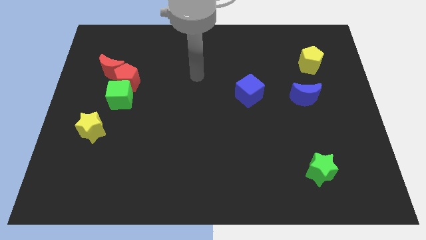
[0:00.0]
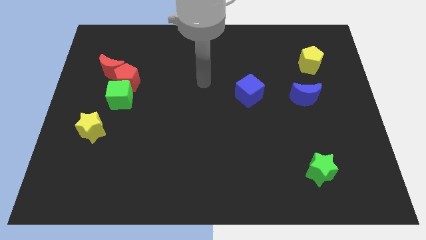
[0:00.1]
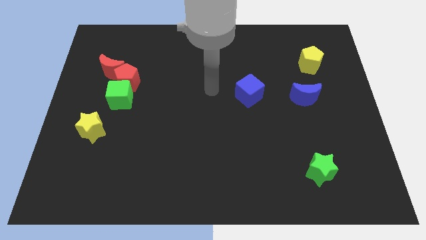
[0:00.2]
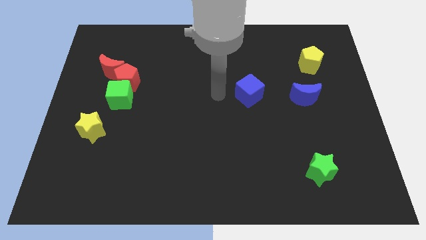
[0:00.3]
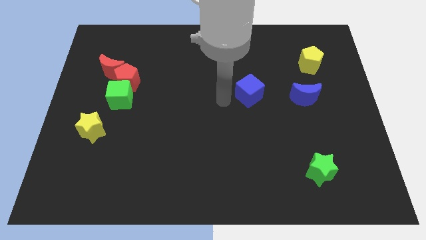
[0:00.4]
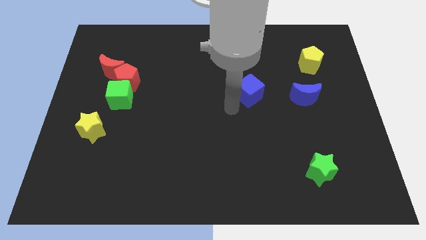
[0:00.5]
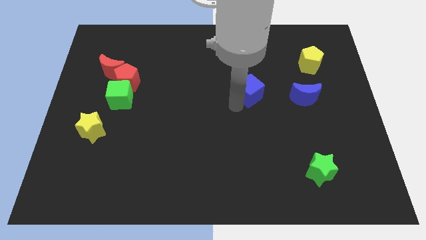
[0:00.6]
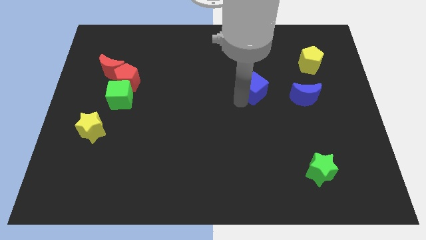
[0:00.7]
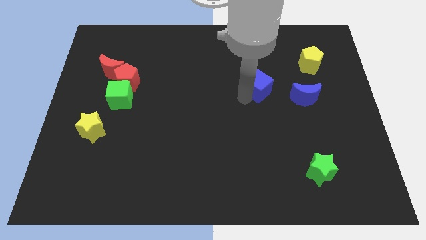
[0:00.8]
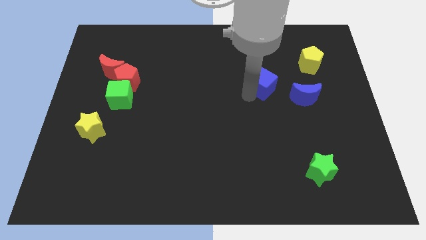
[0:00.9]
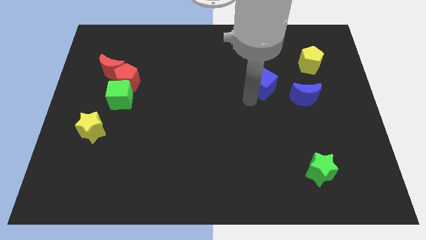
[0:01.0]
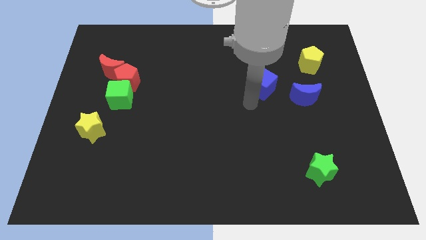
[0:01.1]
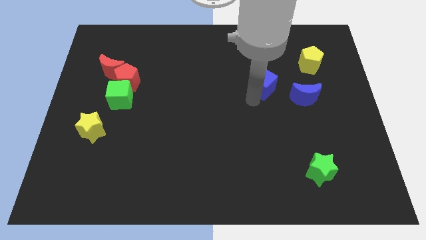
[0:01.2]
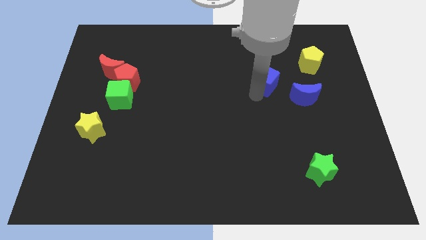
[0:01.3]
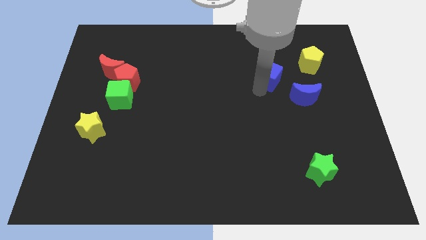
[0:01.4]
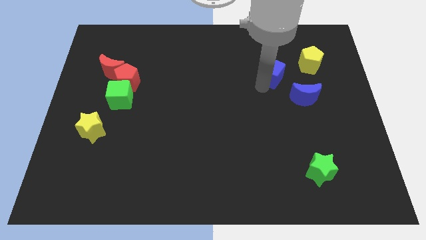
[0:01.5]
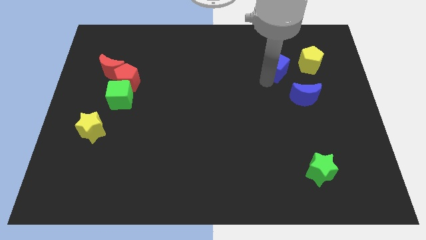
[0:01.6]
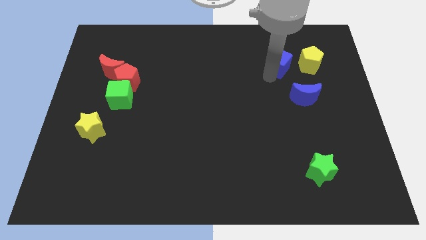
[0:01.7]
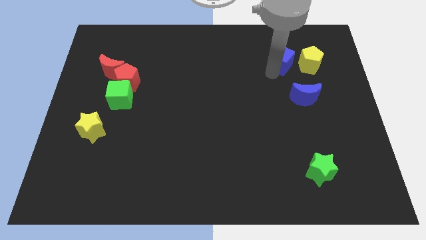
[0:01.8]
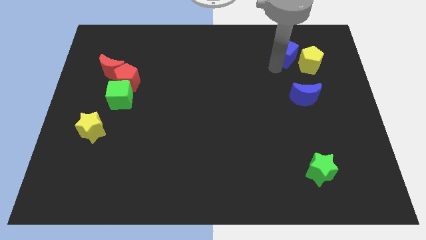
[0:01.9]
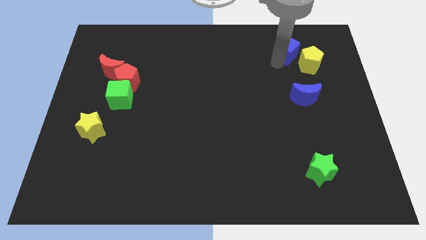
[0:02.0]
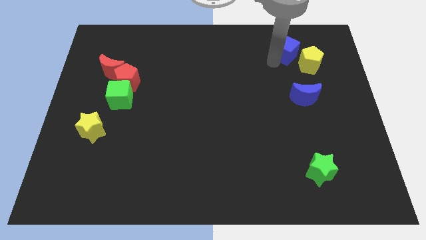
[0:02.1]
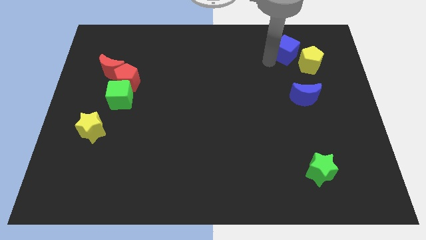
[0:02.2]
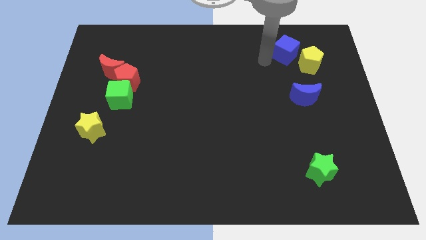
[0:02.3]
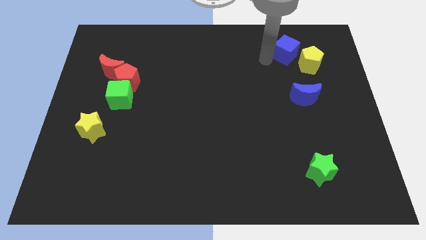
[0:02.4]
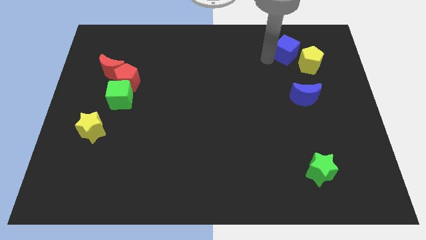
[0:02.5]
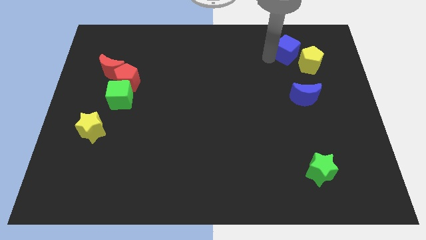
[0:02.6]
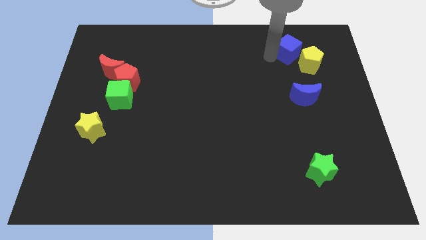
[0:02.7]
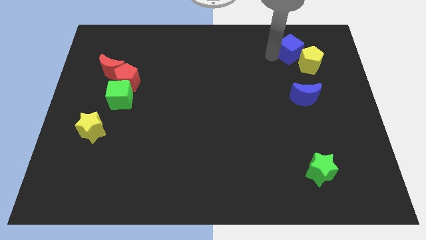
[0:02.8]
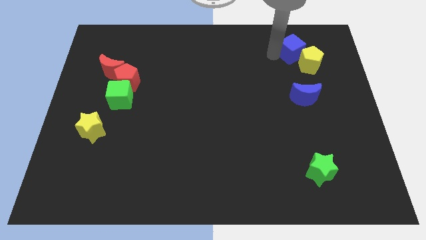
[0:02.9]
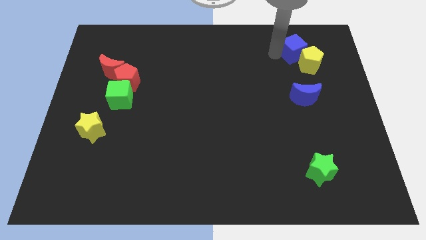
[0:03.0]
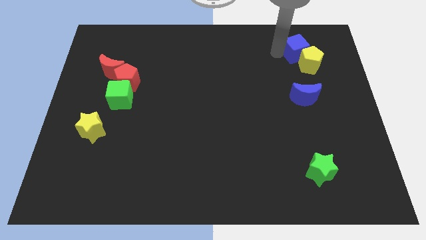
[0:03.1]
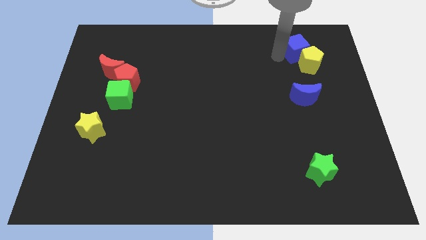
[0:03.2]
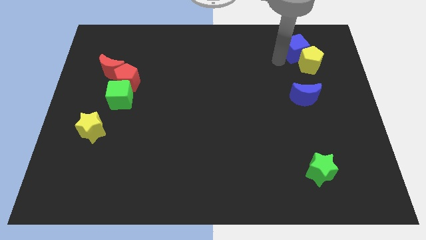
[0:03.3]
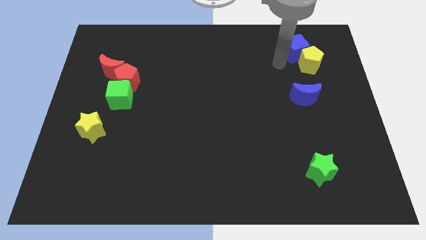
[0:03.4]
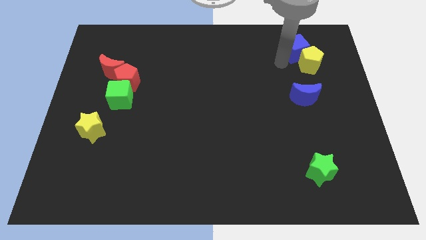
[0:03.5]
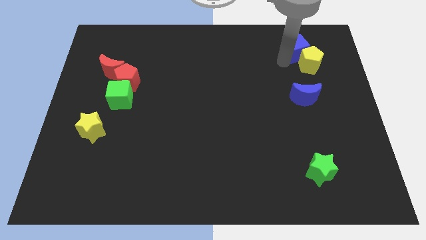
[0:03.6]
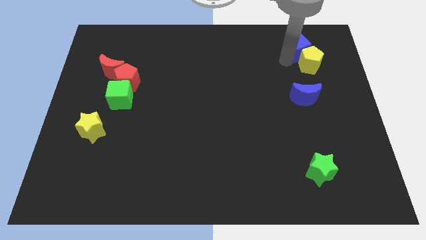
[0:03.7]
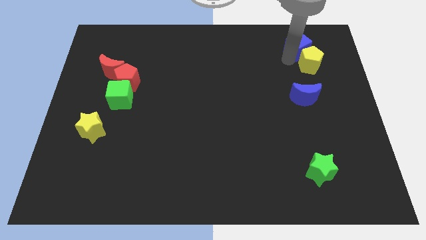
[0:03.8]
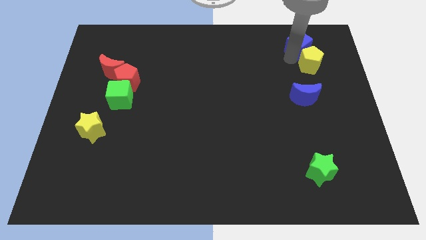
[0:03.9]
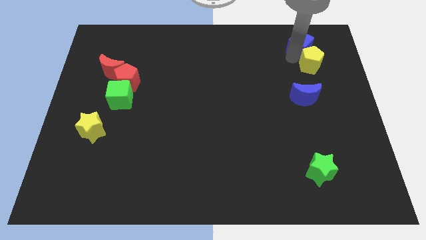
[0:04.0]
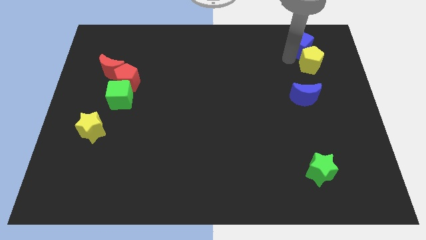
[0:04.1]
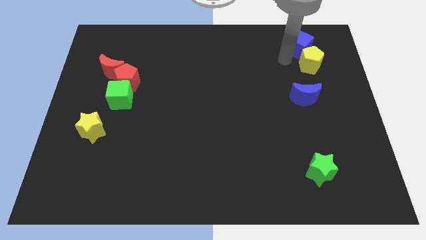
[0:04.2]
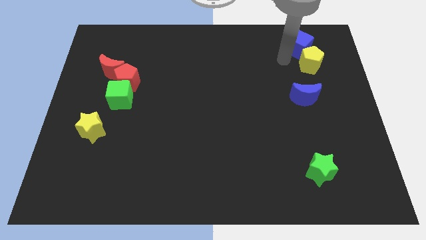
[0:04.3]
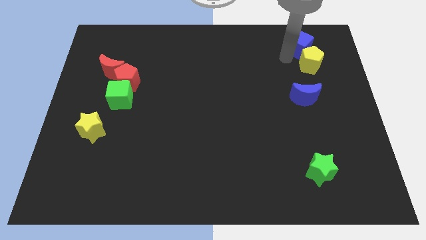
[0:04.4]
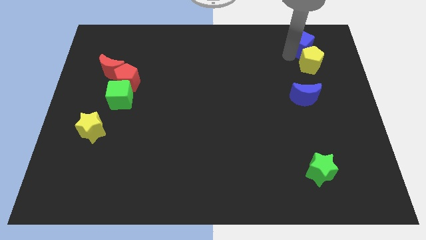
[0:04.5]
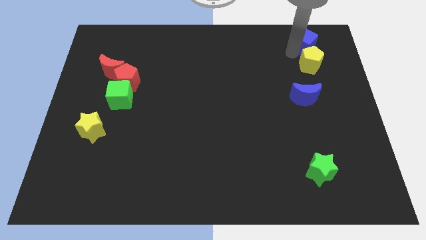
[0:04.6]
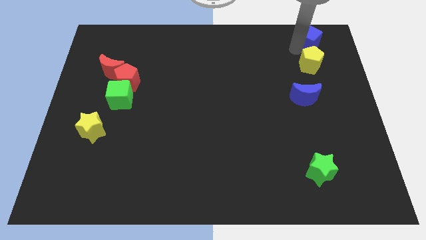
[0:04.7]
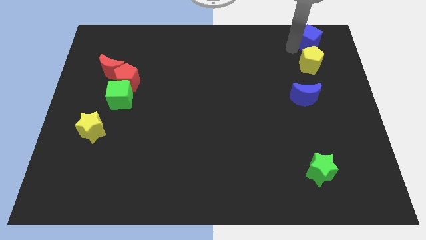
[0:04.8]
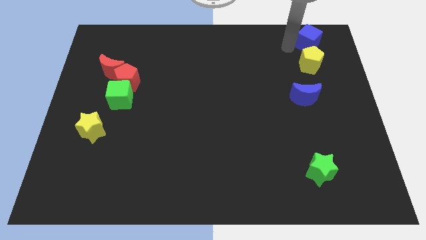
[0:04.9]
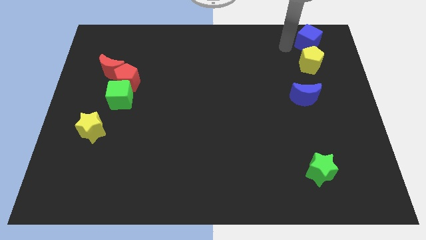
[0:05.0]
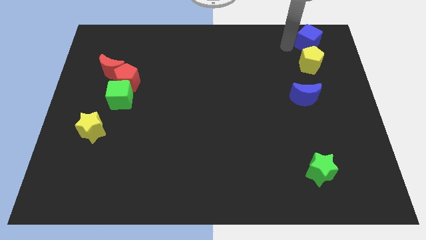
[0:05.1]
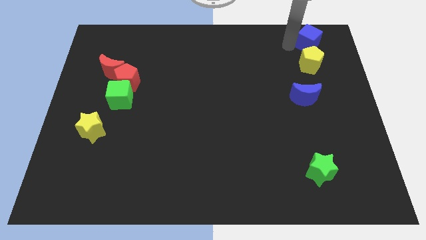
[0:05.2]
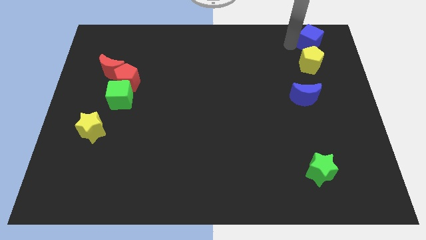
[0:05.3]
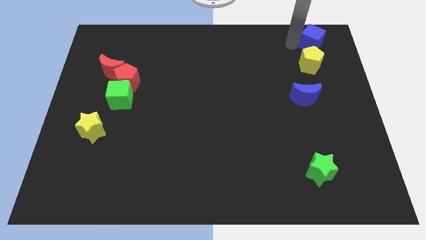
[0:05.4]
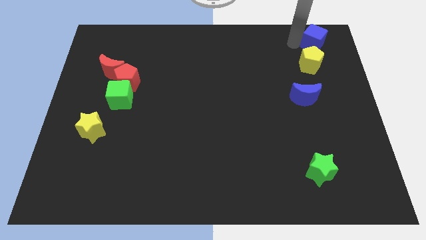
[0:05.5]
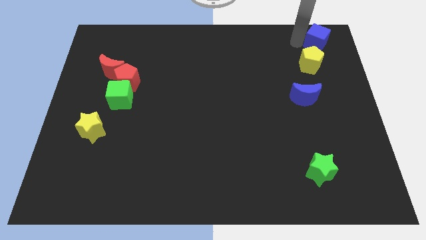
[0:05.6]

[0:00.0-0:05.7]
slide the blue cube to the top right of the board
